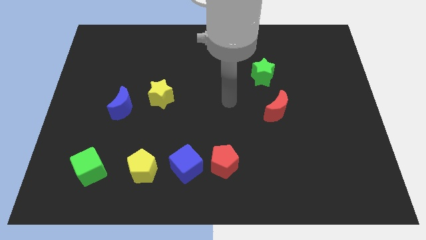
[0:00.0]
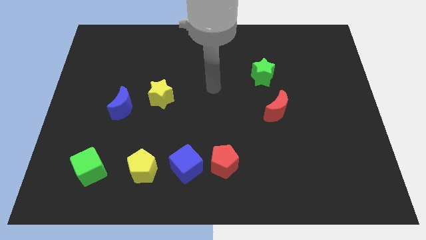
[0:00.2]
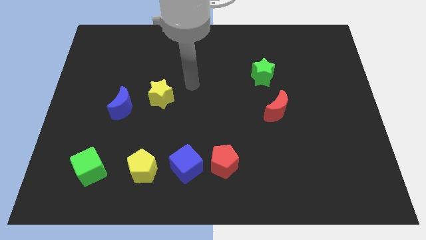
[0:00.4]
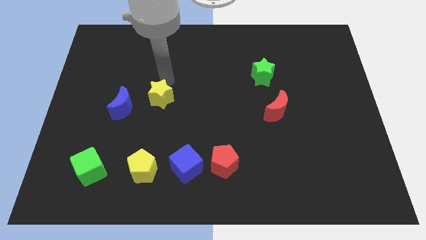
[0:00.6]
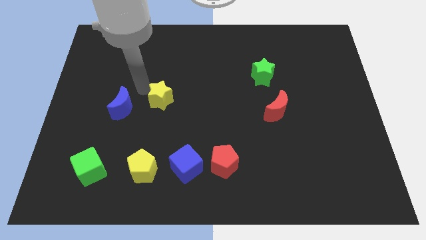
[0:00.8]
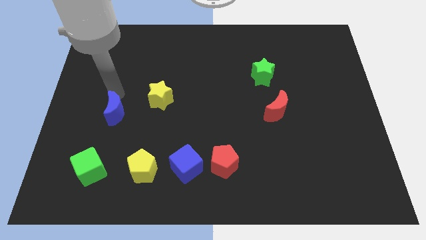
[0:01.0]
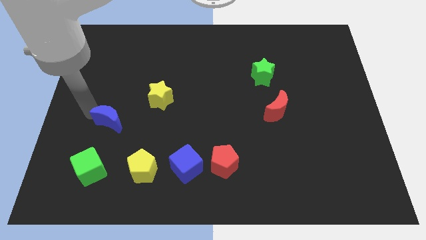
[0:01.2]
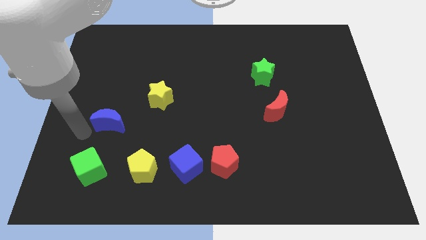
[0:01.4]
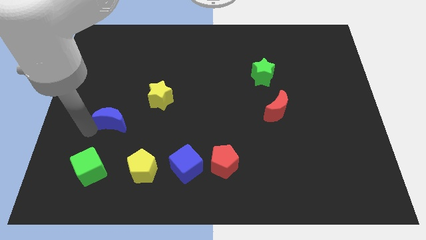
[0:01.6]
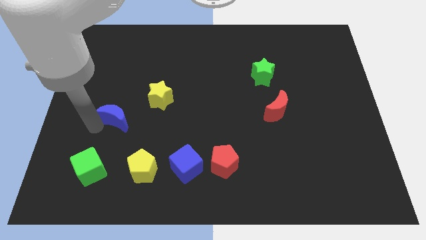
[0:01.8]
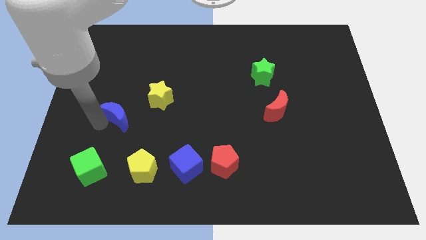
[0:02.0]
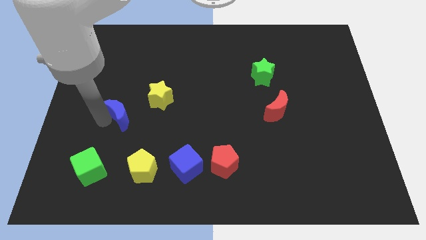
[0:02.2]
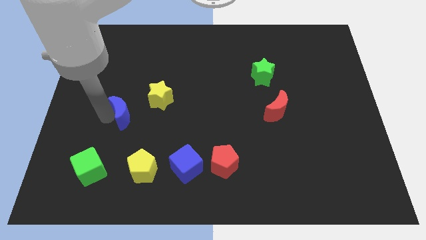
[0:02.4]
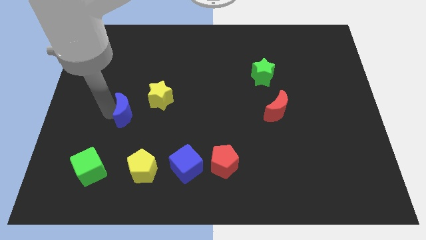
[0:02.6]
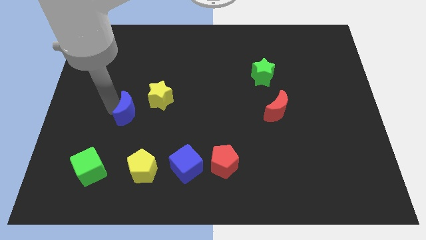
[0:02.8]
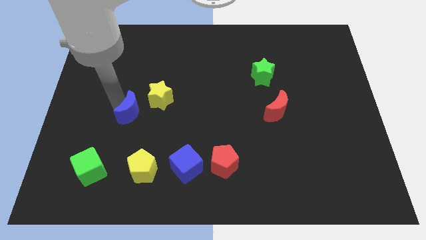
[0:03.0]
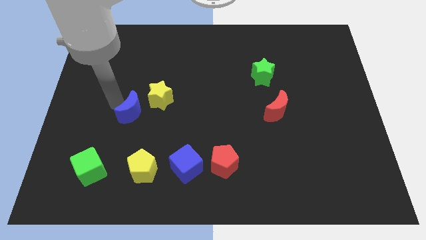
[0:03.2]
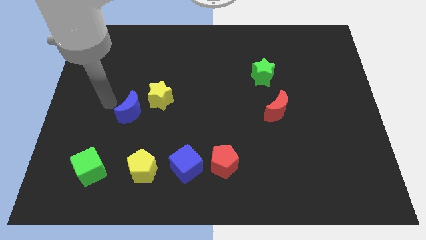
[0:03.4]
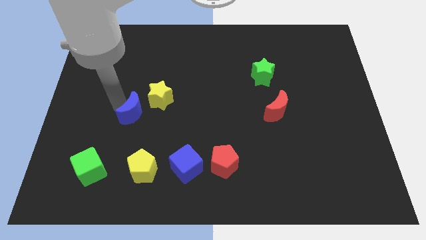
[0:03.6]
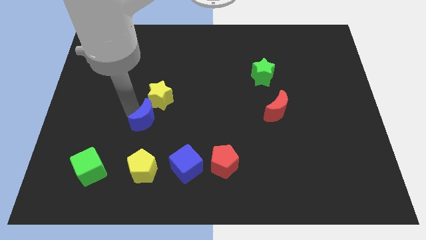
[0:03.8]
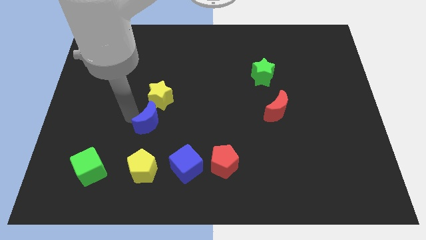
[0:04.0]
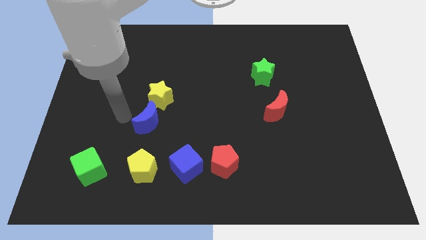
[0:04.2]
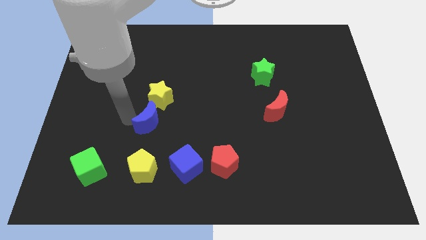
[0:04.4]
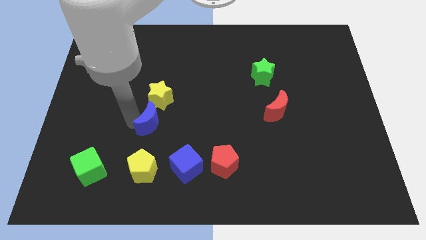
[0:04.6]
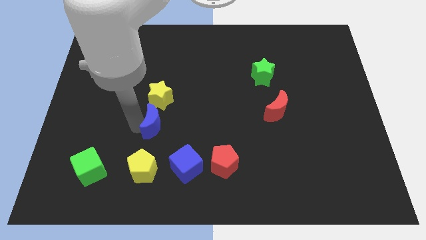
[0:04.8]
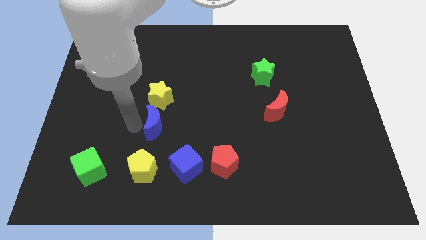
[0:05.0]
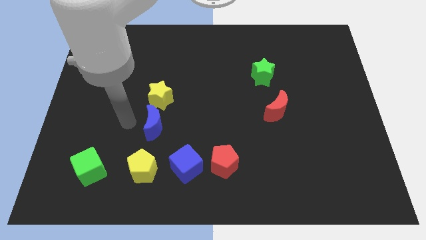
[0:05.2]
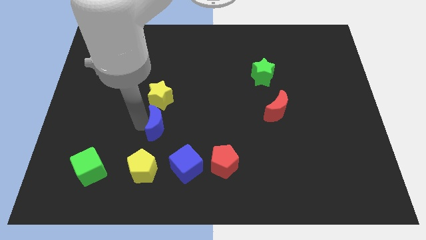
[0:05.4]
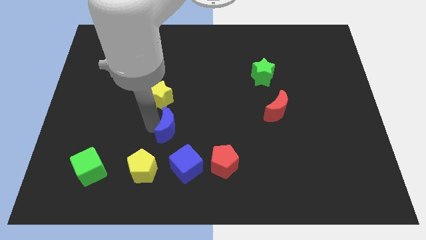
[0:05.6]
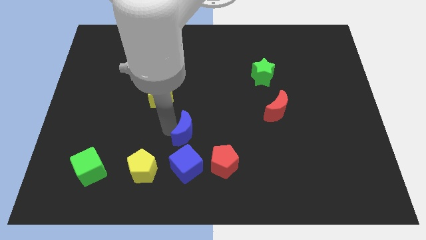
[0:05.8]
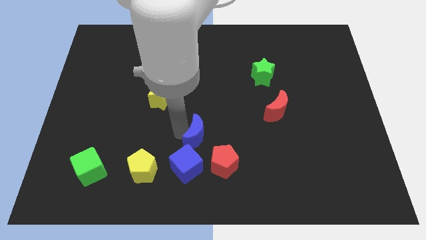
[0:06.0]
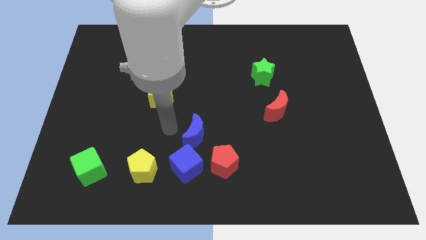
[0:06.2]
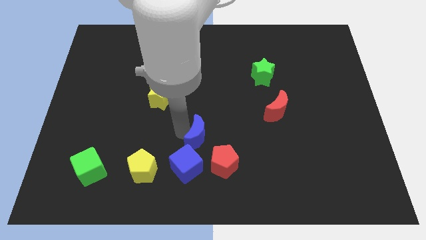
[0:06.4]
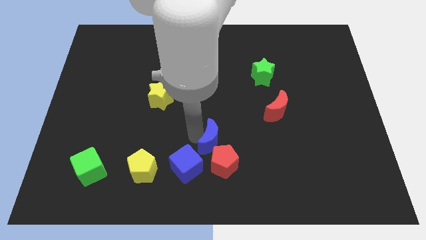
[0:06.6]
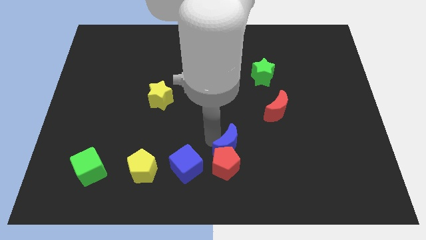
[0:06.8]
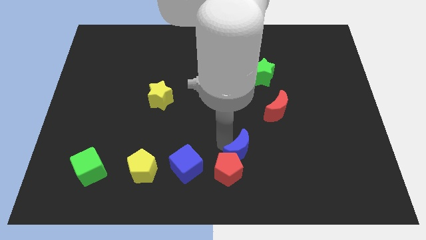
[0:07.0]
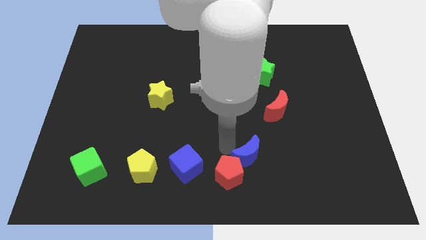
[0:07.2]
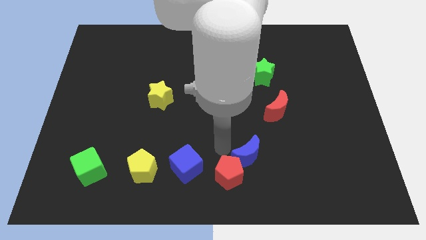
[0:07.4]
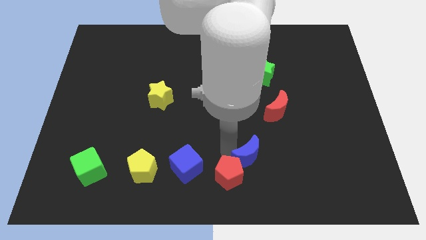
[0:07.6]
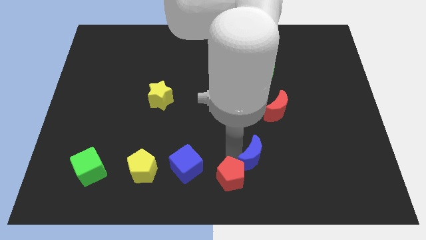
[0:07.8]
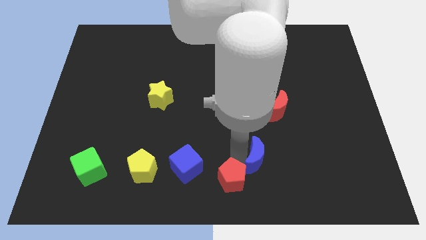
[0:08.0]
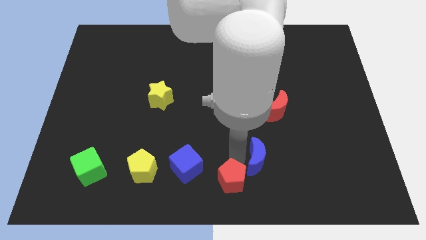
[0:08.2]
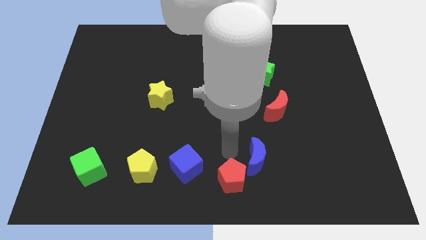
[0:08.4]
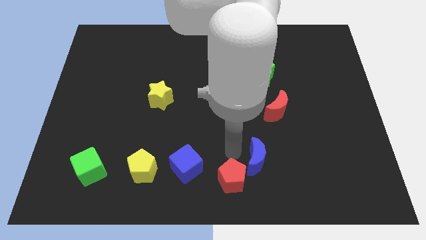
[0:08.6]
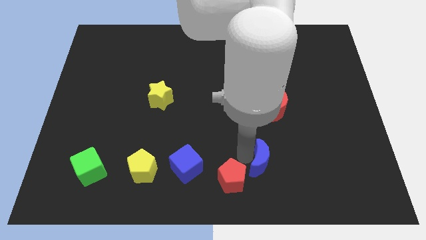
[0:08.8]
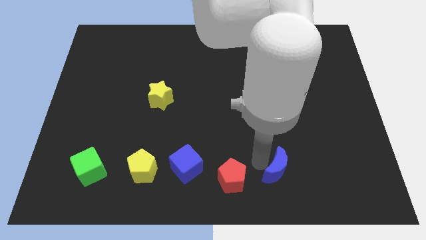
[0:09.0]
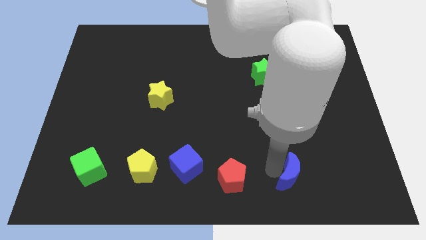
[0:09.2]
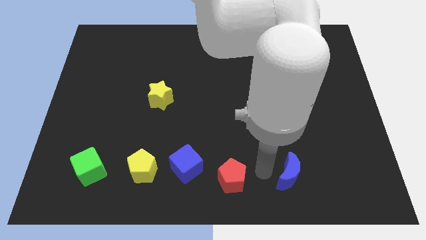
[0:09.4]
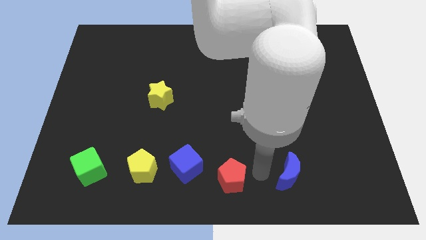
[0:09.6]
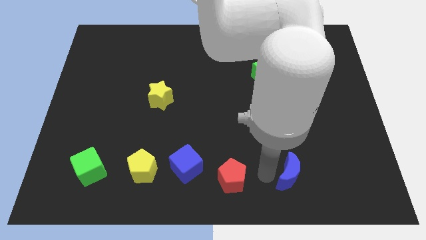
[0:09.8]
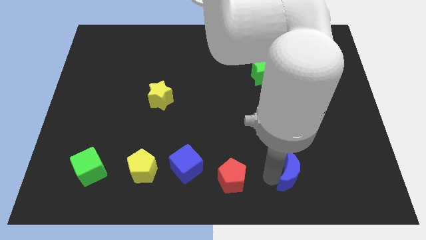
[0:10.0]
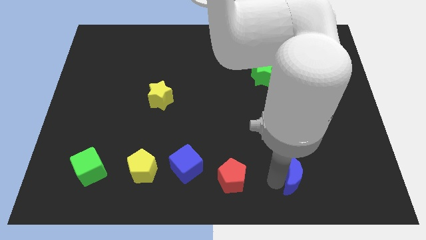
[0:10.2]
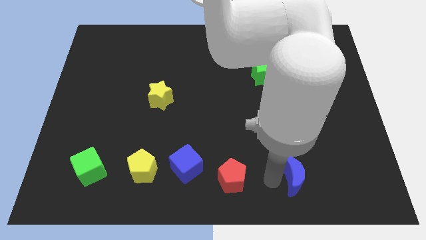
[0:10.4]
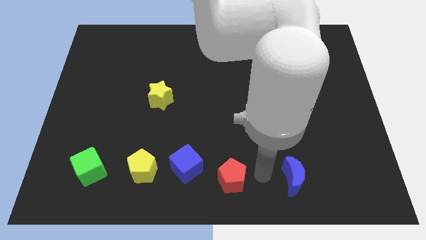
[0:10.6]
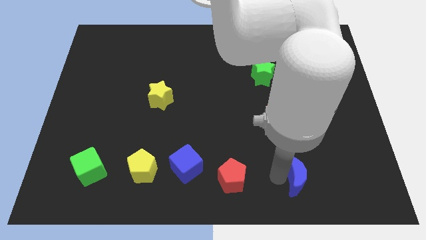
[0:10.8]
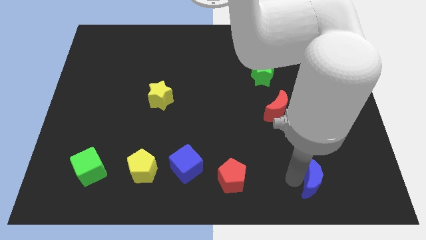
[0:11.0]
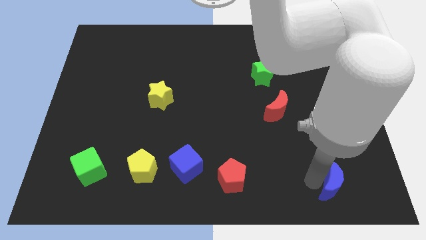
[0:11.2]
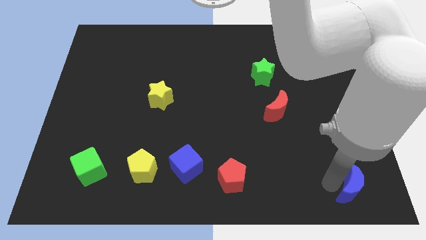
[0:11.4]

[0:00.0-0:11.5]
push the blue moon to the lower right corner

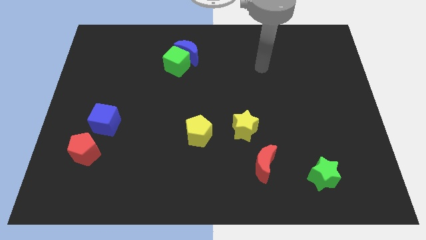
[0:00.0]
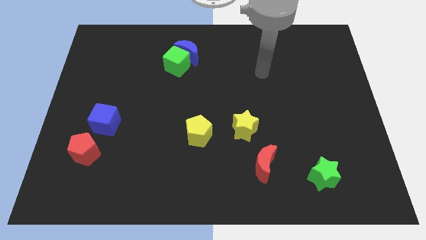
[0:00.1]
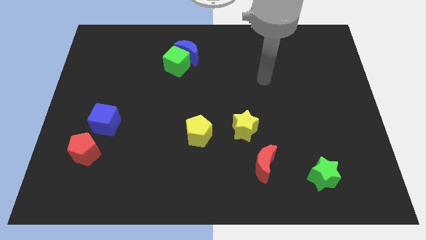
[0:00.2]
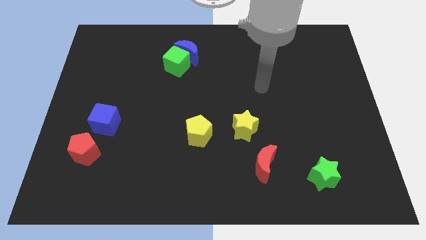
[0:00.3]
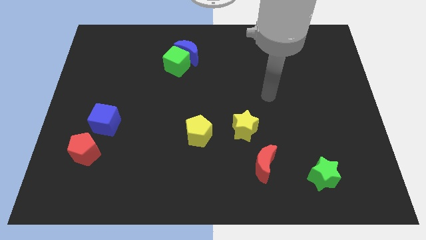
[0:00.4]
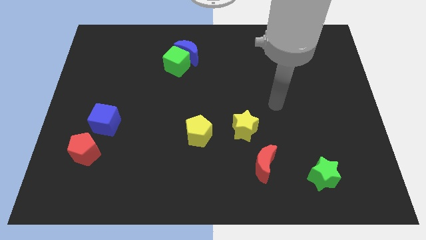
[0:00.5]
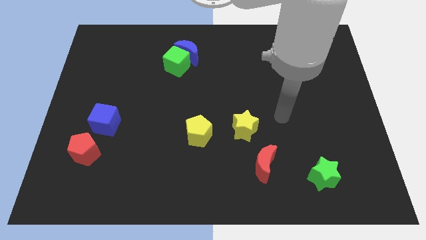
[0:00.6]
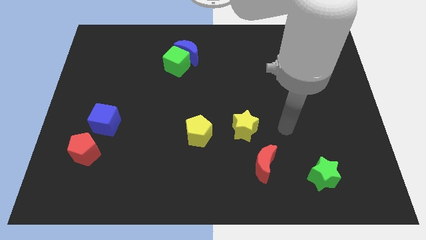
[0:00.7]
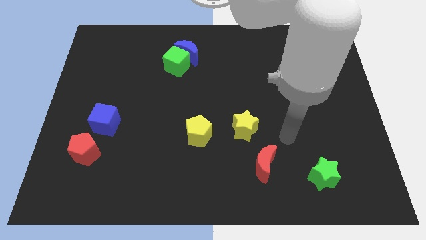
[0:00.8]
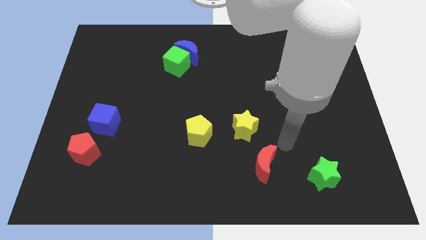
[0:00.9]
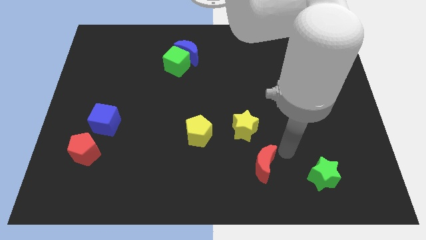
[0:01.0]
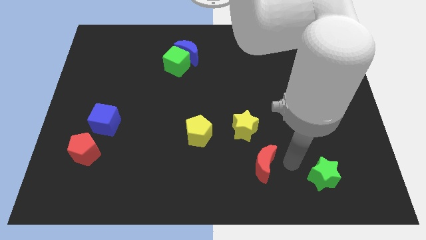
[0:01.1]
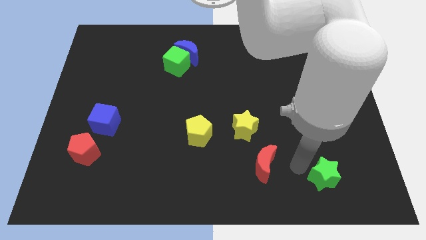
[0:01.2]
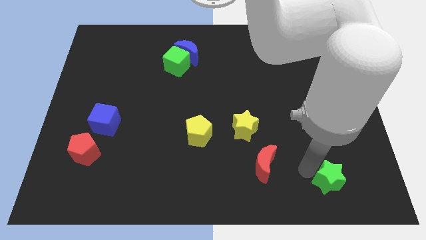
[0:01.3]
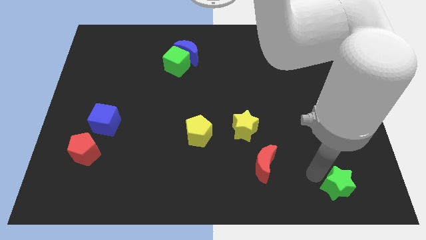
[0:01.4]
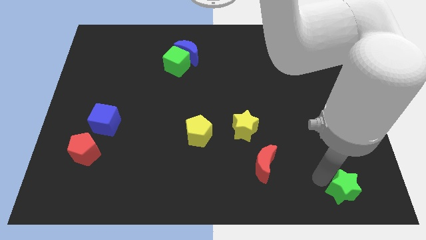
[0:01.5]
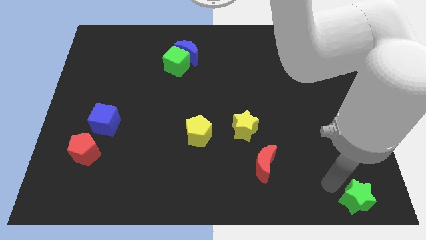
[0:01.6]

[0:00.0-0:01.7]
slide the green star to the bottom right
